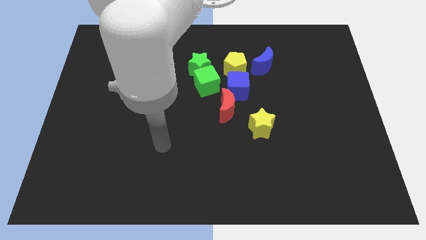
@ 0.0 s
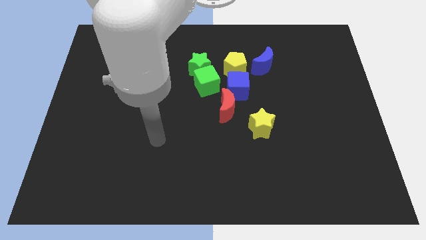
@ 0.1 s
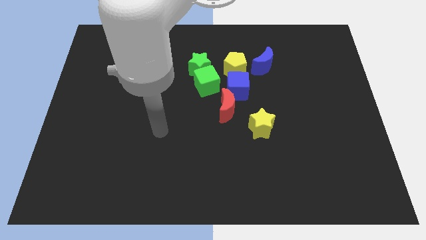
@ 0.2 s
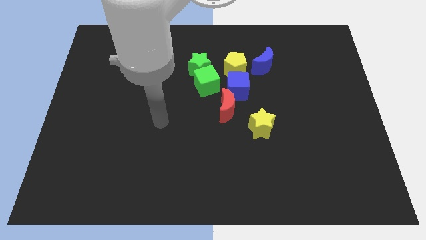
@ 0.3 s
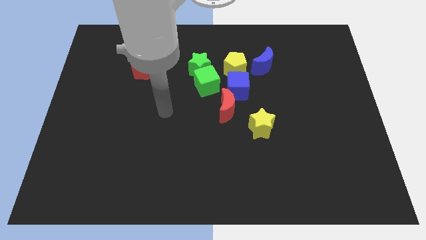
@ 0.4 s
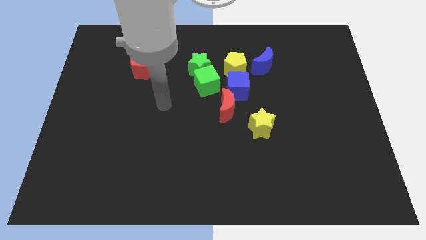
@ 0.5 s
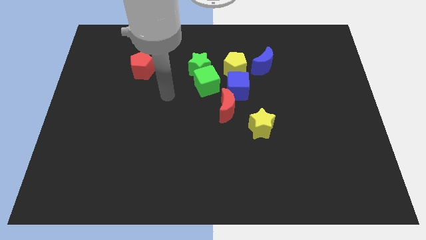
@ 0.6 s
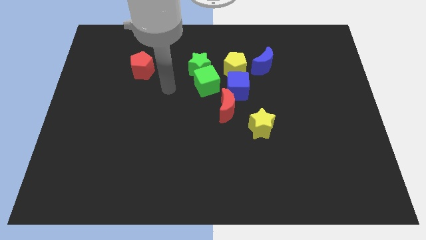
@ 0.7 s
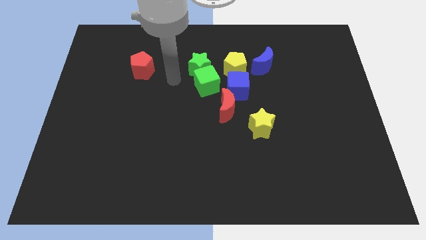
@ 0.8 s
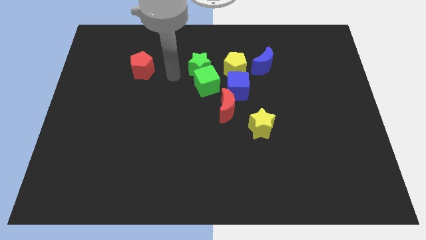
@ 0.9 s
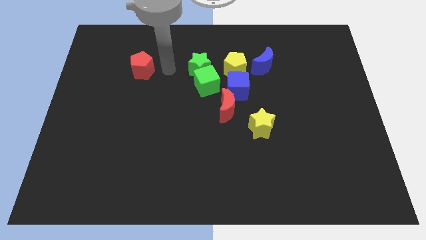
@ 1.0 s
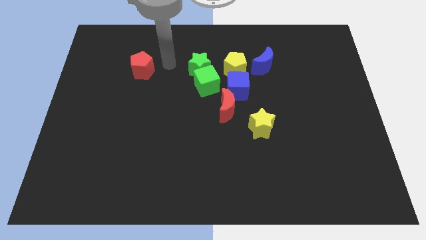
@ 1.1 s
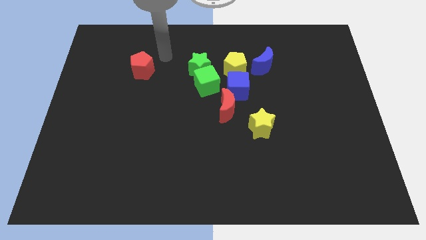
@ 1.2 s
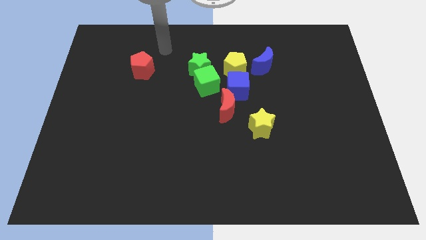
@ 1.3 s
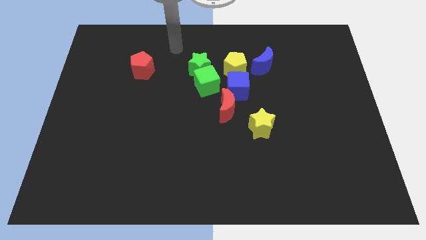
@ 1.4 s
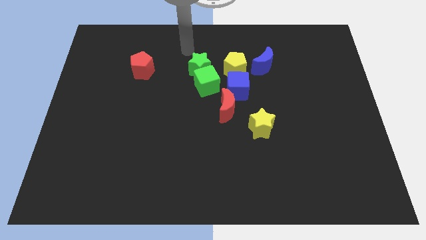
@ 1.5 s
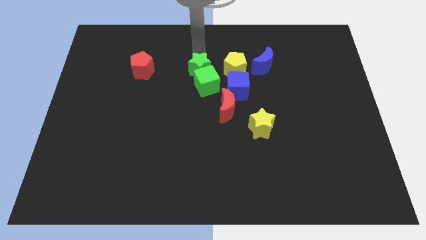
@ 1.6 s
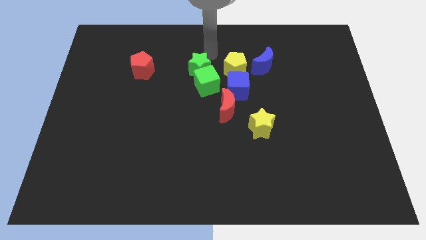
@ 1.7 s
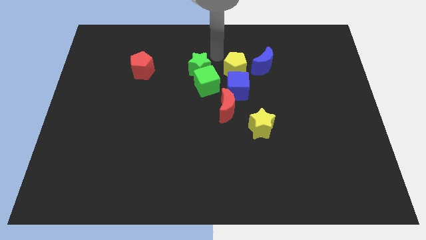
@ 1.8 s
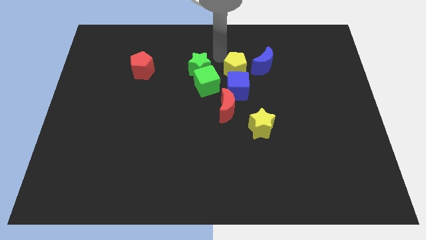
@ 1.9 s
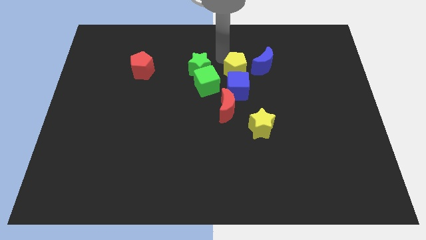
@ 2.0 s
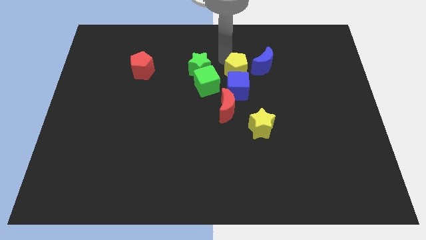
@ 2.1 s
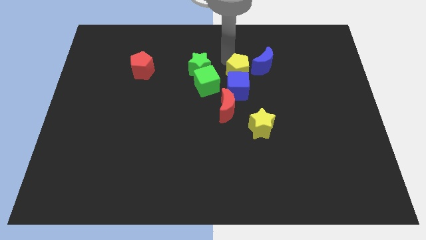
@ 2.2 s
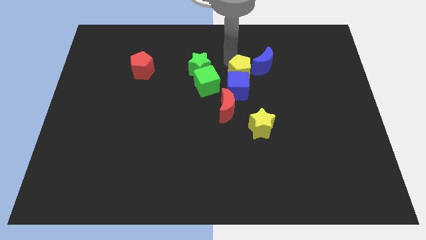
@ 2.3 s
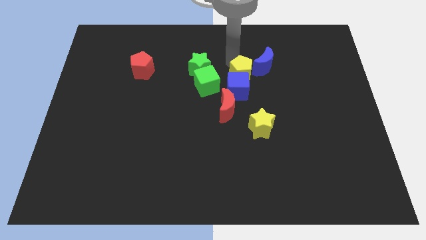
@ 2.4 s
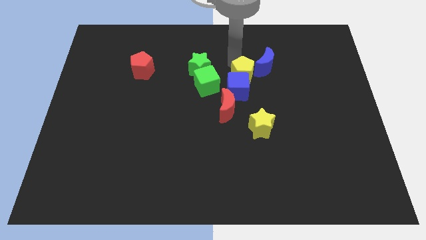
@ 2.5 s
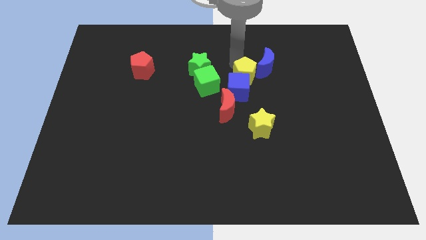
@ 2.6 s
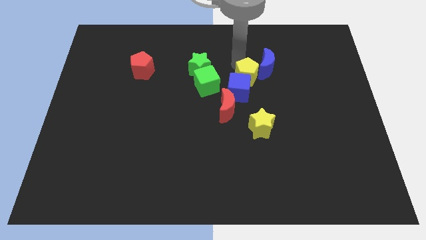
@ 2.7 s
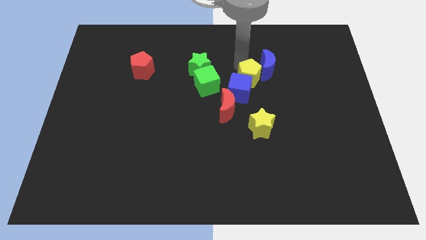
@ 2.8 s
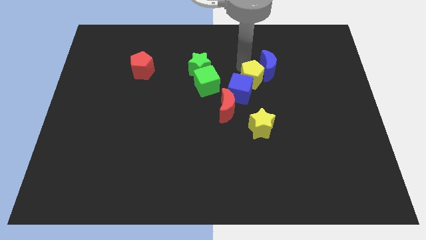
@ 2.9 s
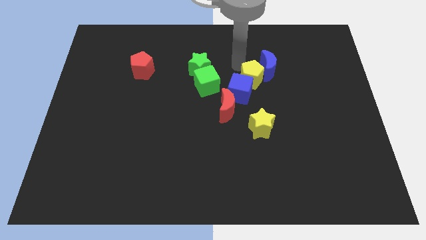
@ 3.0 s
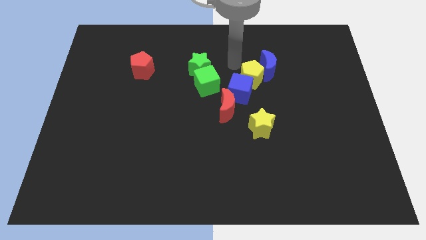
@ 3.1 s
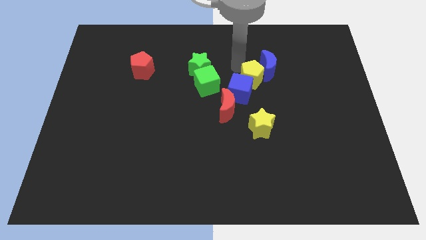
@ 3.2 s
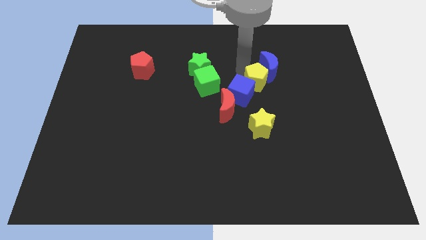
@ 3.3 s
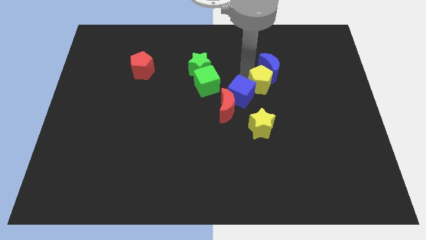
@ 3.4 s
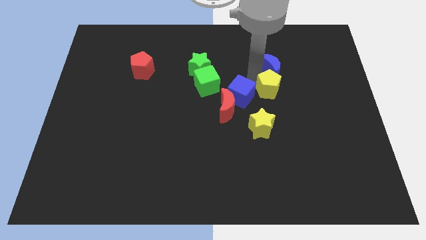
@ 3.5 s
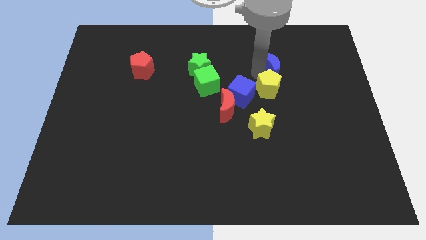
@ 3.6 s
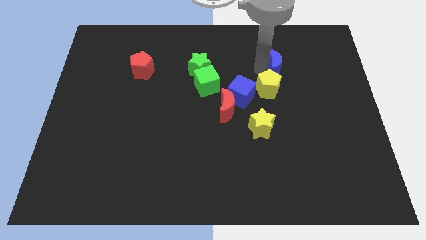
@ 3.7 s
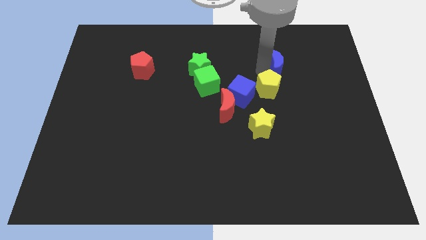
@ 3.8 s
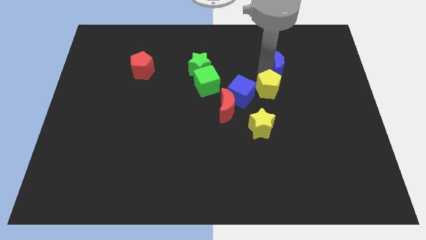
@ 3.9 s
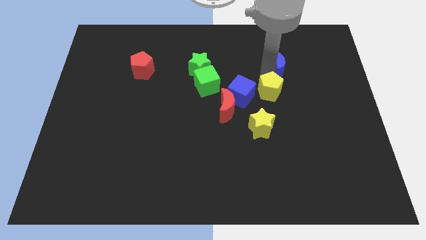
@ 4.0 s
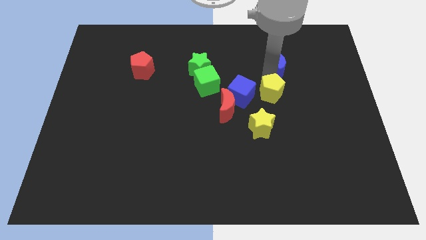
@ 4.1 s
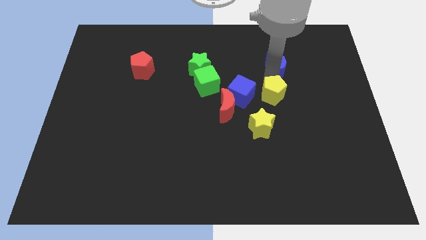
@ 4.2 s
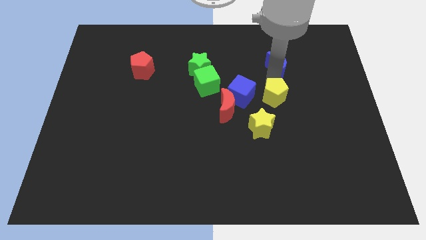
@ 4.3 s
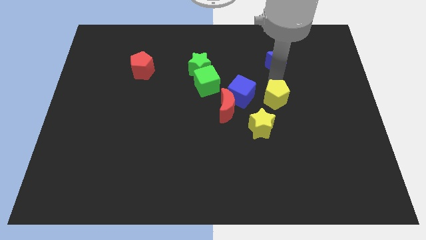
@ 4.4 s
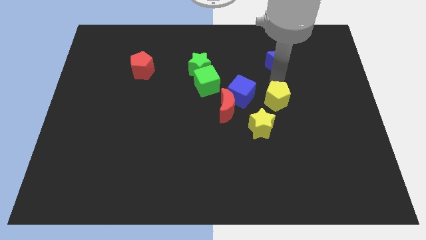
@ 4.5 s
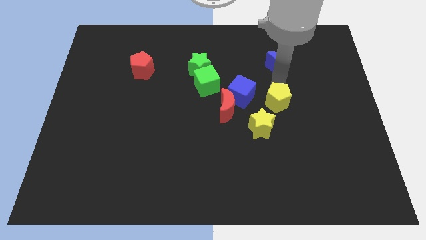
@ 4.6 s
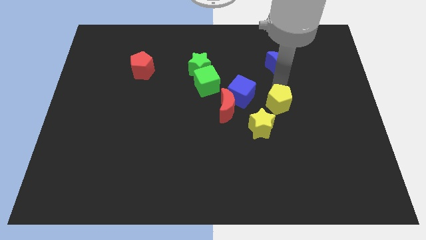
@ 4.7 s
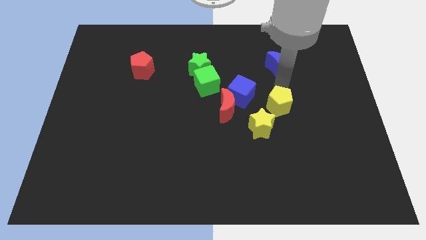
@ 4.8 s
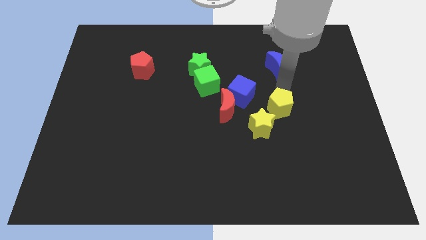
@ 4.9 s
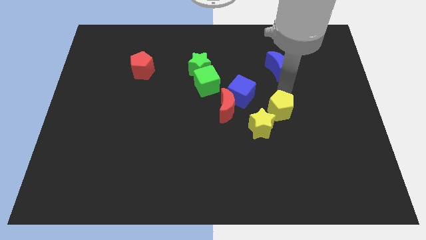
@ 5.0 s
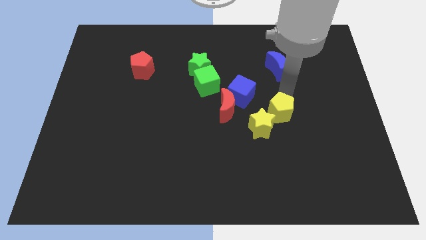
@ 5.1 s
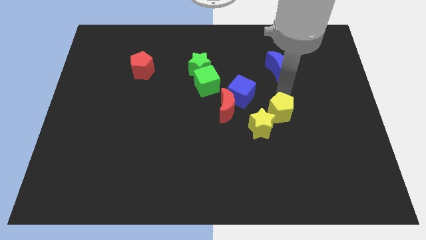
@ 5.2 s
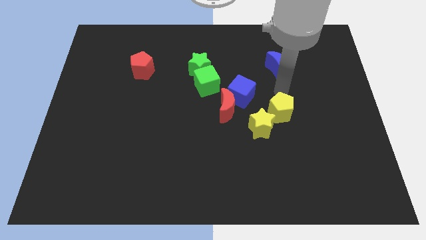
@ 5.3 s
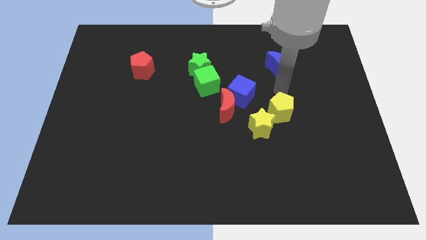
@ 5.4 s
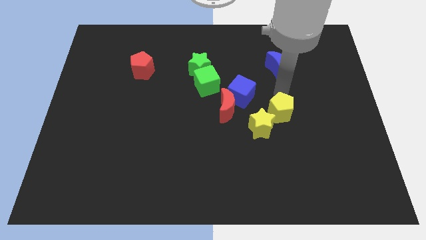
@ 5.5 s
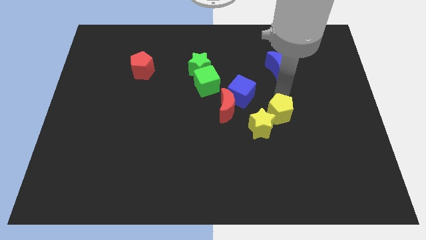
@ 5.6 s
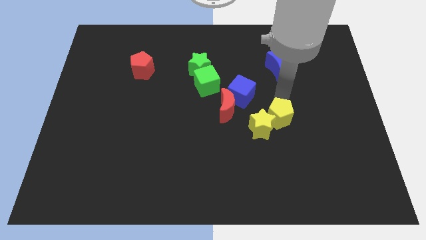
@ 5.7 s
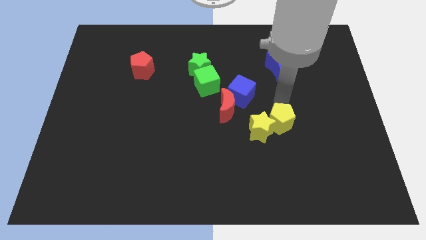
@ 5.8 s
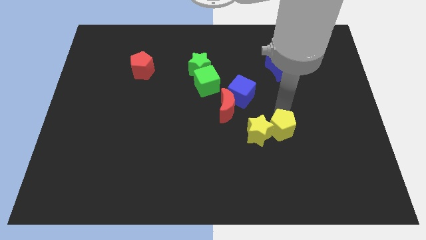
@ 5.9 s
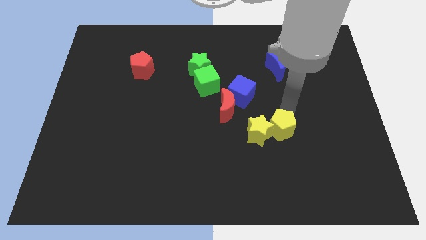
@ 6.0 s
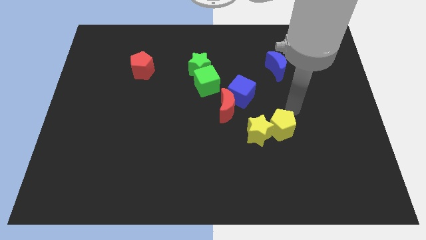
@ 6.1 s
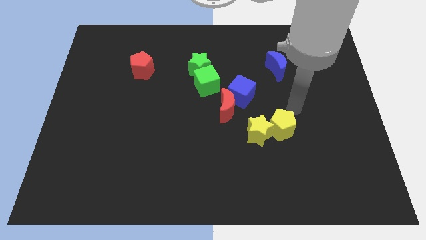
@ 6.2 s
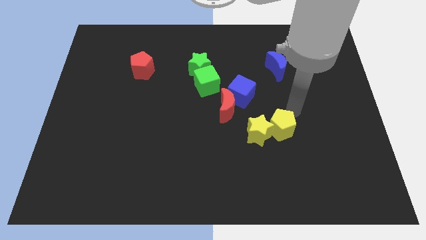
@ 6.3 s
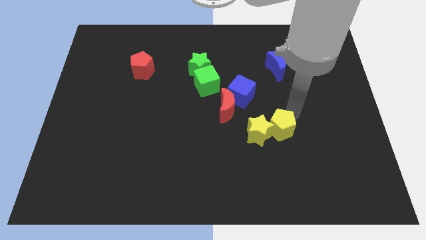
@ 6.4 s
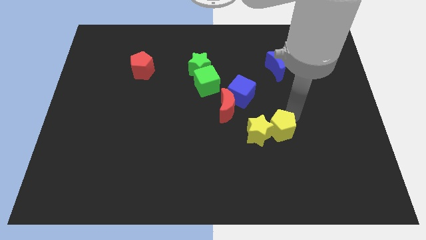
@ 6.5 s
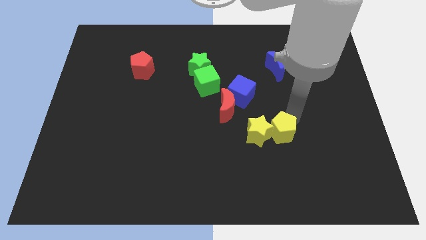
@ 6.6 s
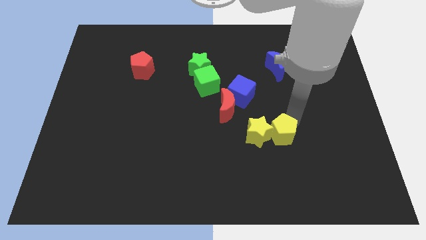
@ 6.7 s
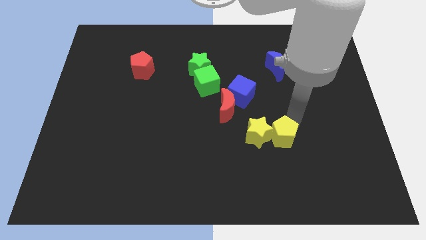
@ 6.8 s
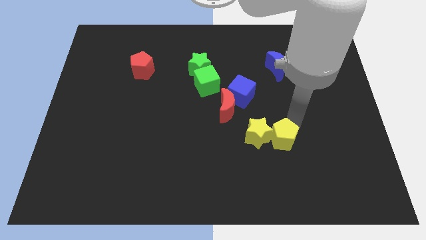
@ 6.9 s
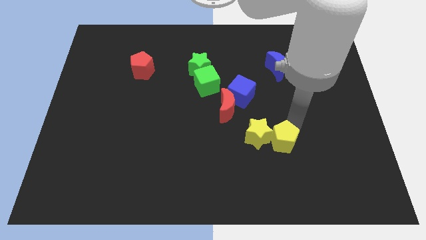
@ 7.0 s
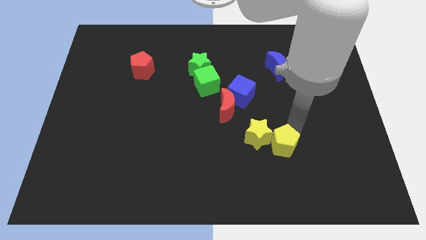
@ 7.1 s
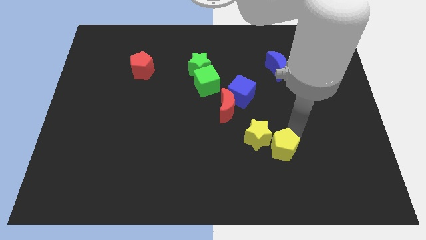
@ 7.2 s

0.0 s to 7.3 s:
push the yellow pentagon down

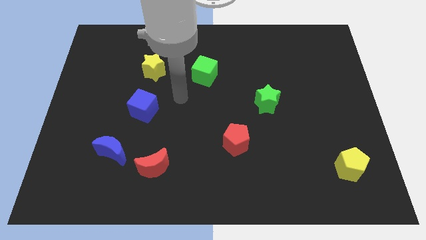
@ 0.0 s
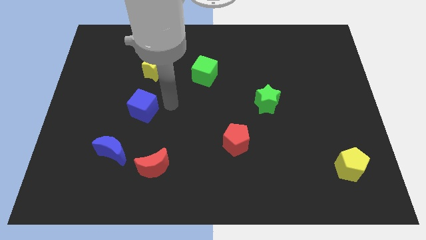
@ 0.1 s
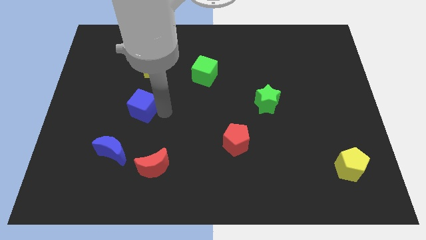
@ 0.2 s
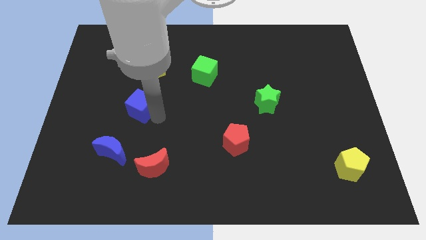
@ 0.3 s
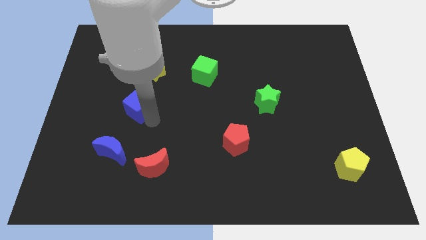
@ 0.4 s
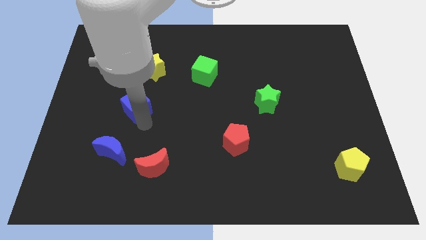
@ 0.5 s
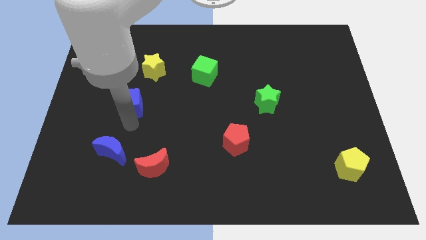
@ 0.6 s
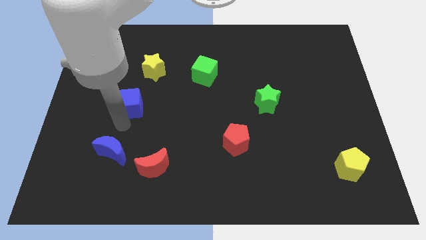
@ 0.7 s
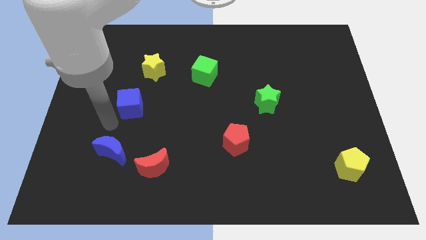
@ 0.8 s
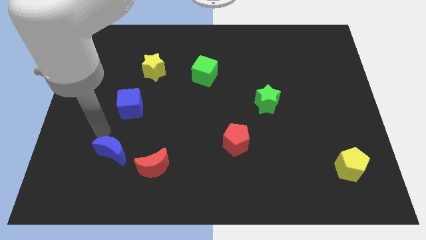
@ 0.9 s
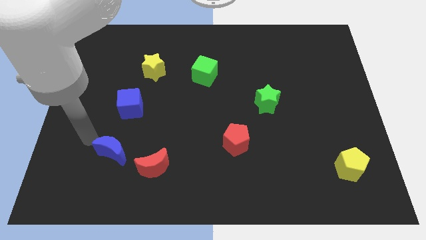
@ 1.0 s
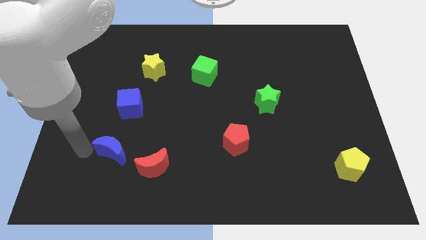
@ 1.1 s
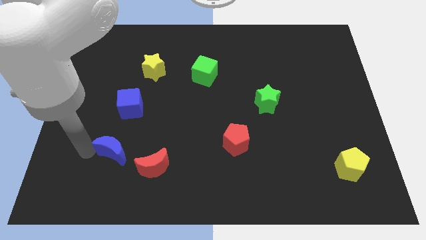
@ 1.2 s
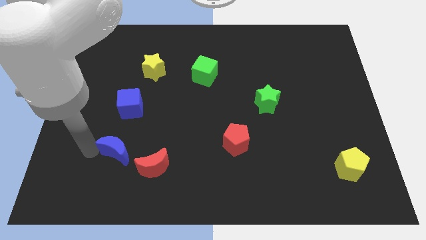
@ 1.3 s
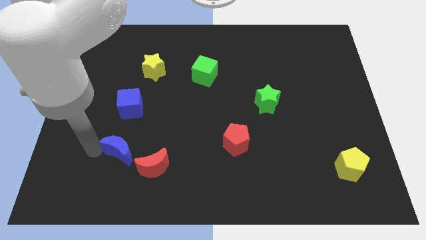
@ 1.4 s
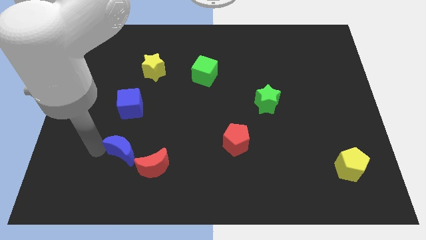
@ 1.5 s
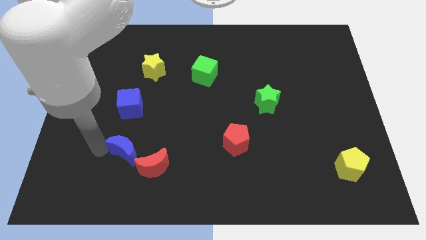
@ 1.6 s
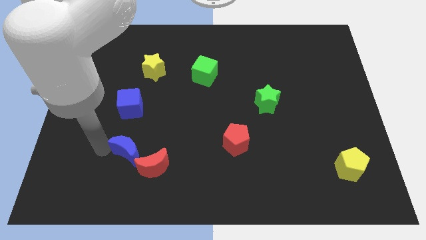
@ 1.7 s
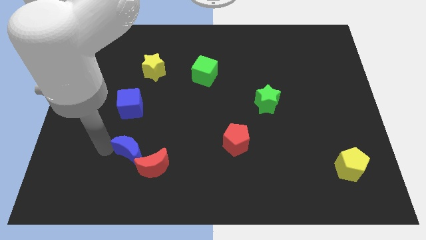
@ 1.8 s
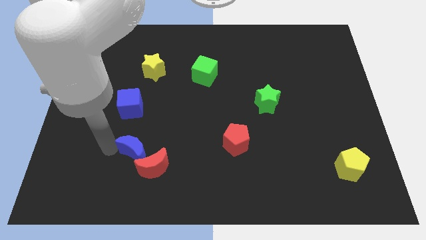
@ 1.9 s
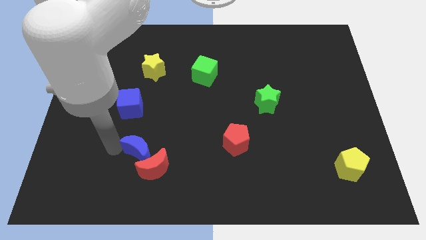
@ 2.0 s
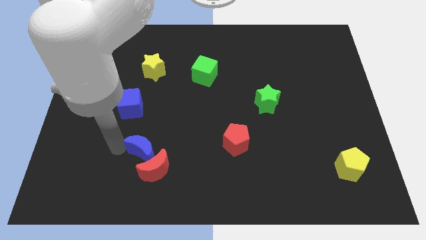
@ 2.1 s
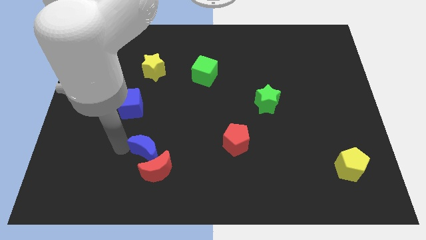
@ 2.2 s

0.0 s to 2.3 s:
slide the blue moon a little bit to the right
